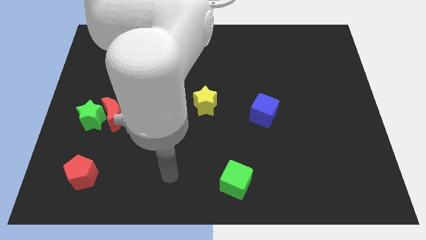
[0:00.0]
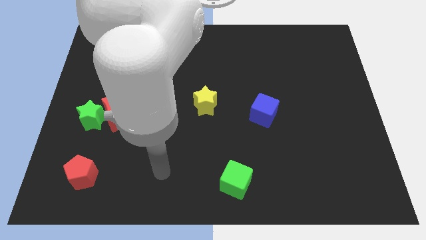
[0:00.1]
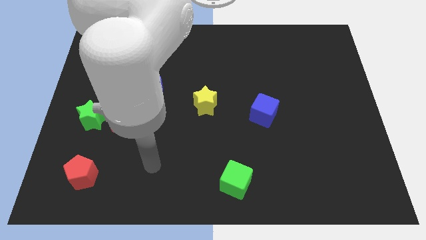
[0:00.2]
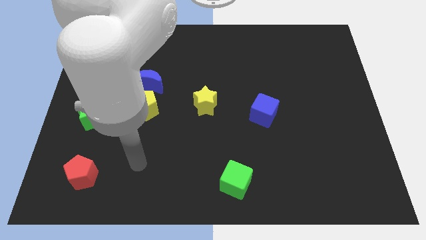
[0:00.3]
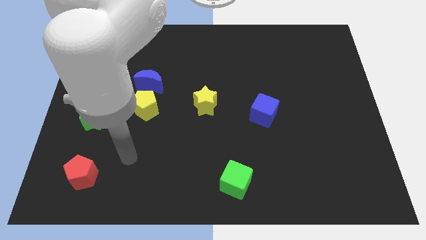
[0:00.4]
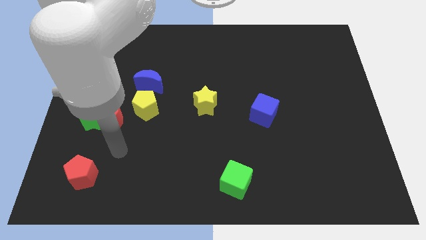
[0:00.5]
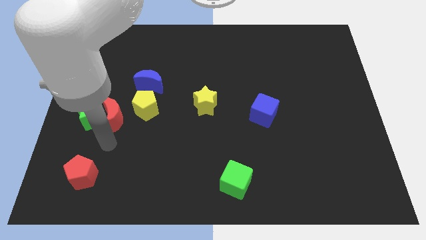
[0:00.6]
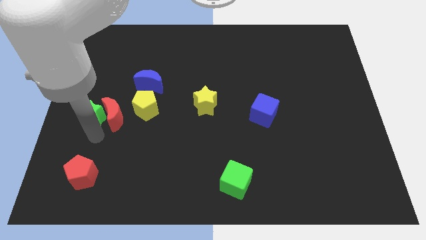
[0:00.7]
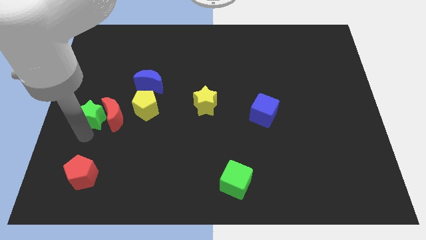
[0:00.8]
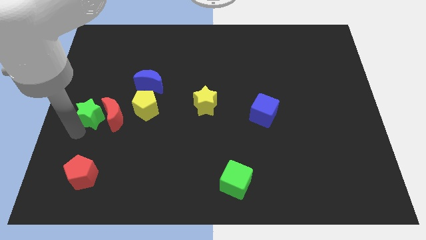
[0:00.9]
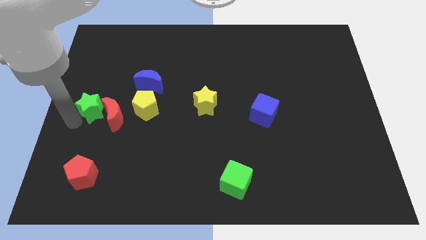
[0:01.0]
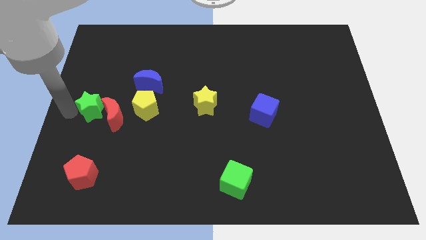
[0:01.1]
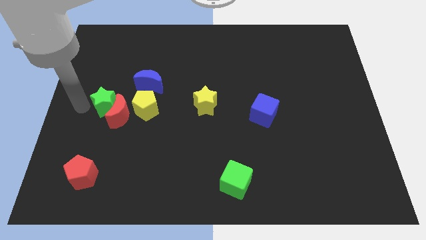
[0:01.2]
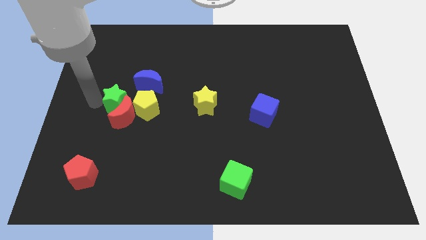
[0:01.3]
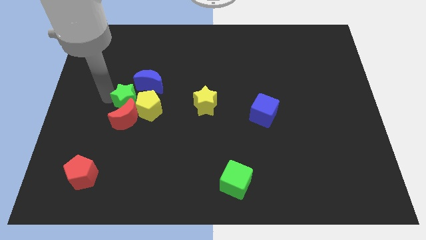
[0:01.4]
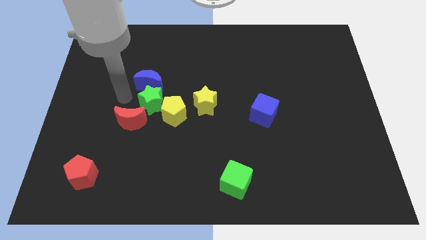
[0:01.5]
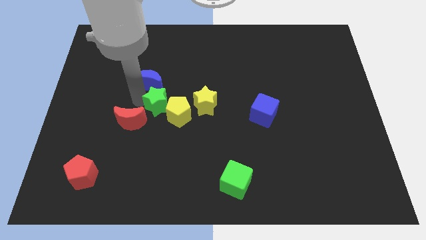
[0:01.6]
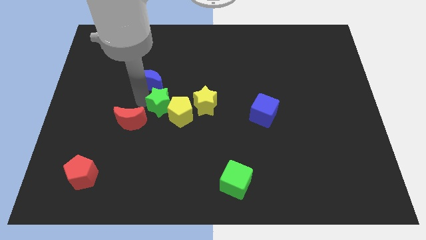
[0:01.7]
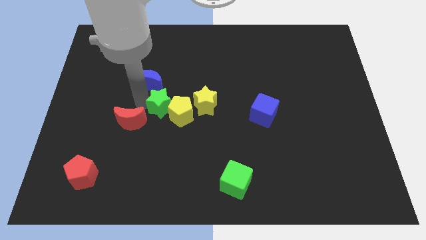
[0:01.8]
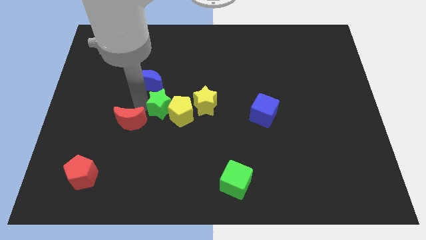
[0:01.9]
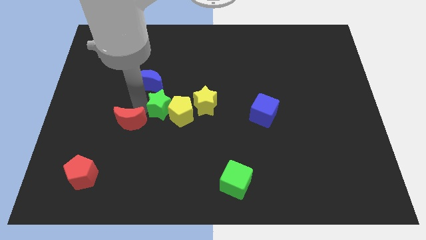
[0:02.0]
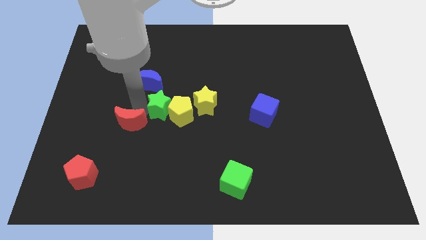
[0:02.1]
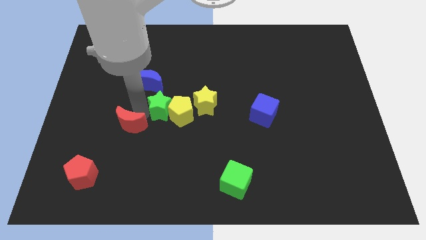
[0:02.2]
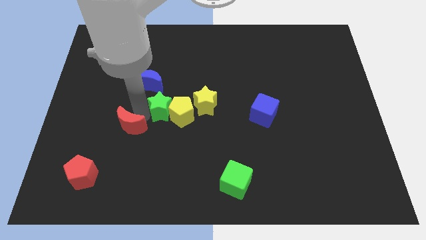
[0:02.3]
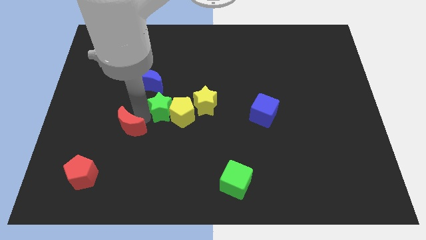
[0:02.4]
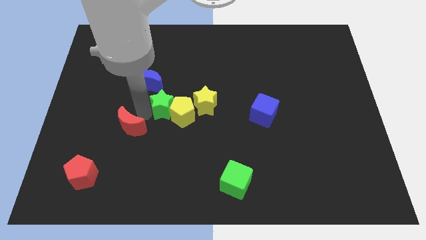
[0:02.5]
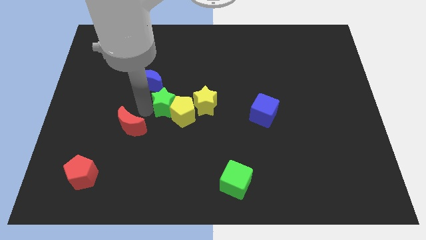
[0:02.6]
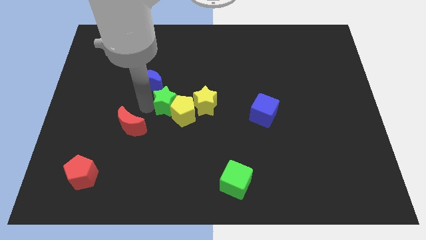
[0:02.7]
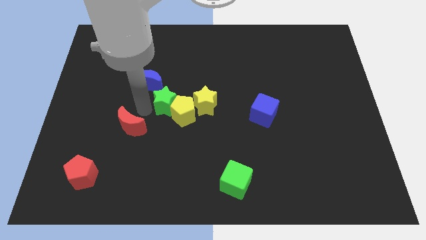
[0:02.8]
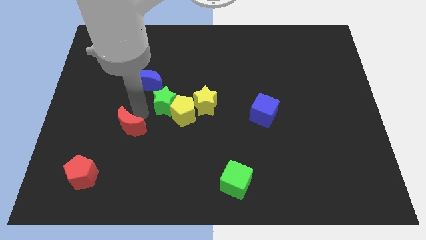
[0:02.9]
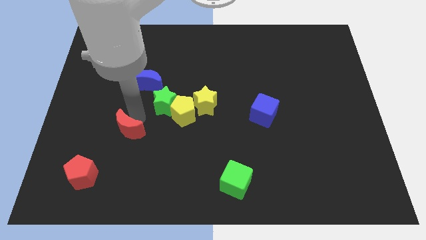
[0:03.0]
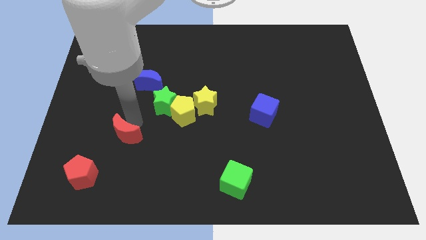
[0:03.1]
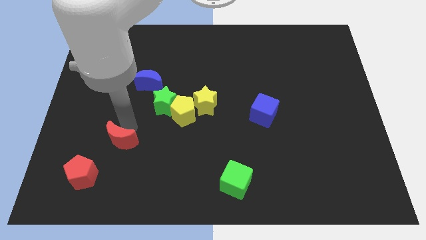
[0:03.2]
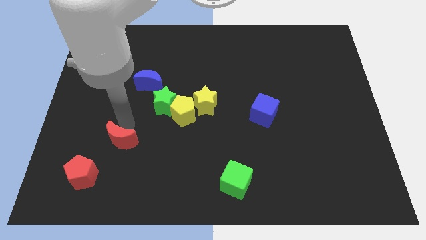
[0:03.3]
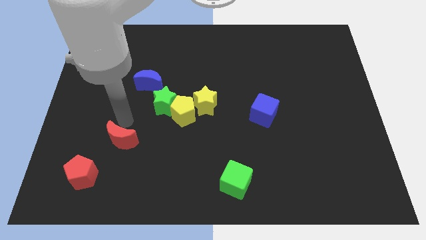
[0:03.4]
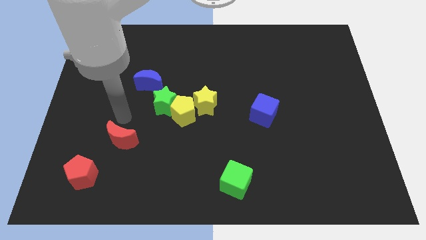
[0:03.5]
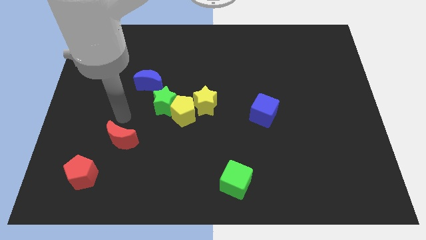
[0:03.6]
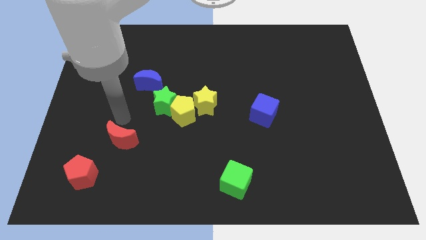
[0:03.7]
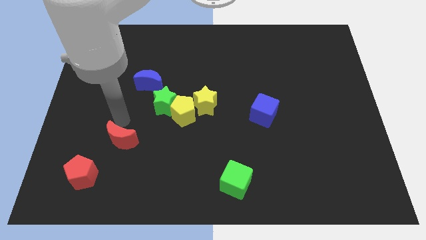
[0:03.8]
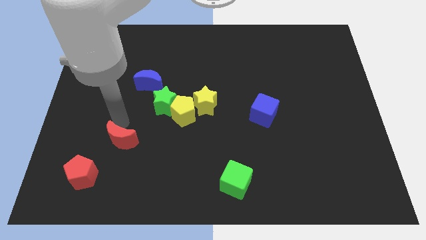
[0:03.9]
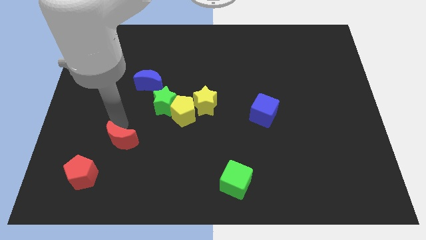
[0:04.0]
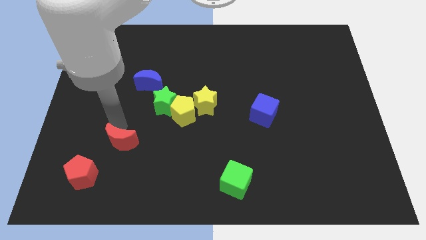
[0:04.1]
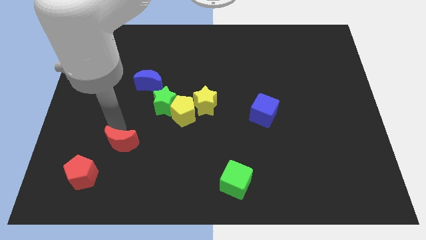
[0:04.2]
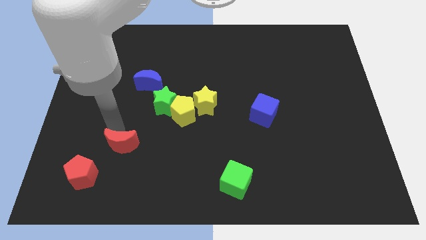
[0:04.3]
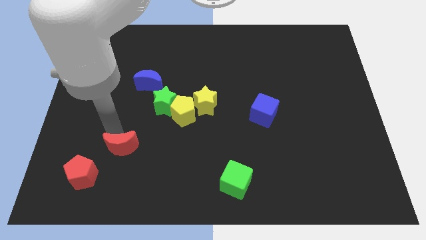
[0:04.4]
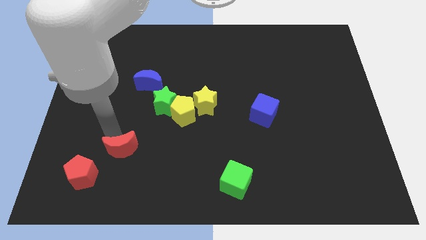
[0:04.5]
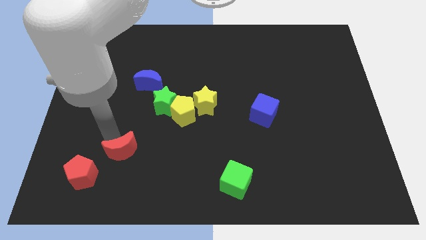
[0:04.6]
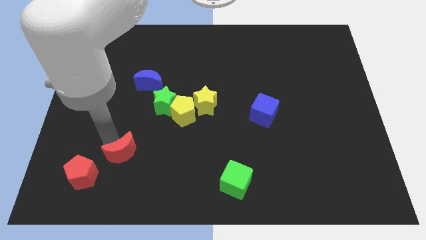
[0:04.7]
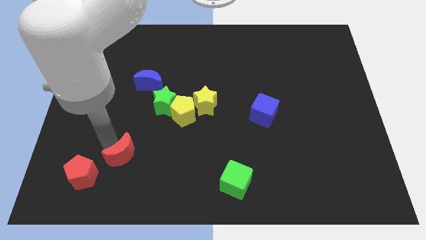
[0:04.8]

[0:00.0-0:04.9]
put the red moon to the right of the red pentagon

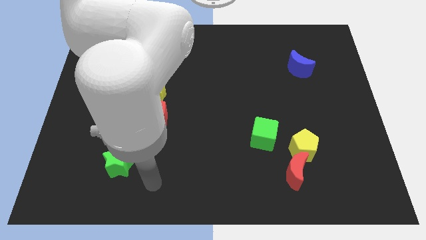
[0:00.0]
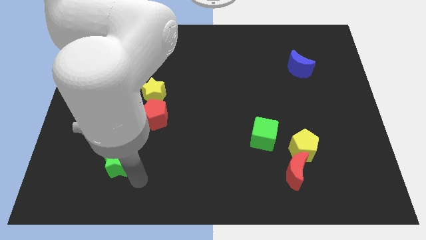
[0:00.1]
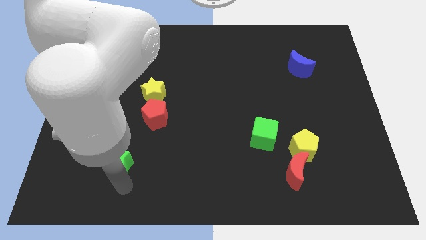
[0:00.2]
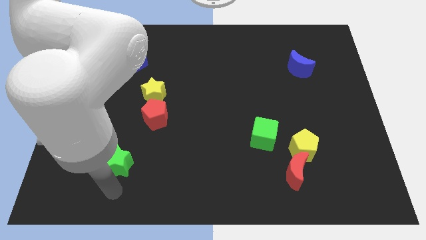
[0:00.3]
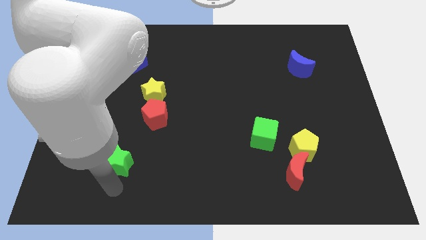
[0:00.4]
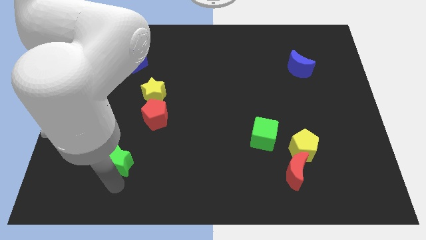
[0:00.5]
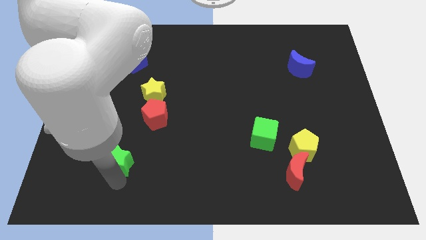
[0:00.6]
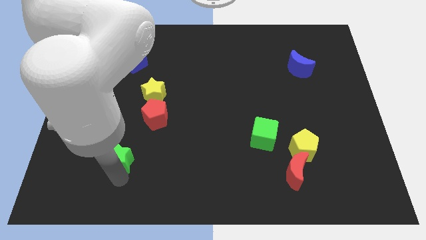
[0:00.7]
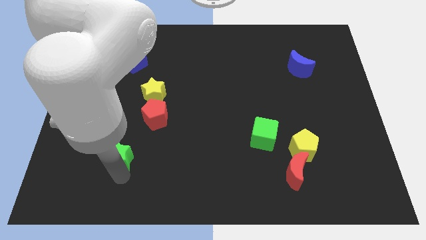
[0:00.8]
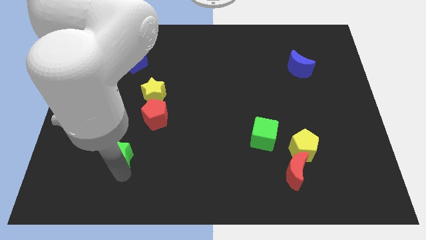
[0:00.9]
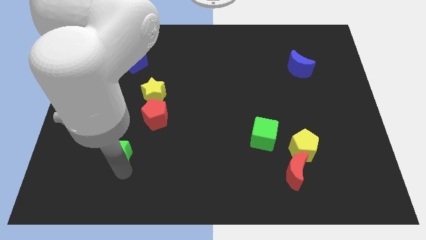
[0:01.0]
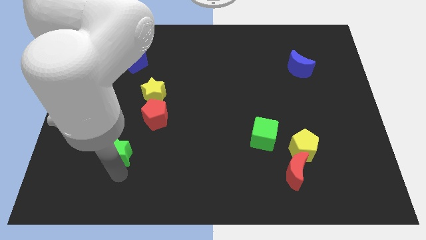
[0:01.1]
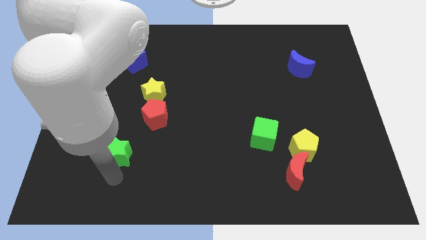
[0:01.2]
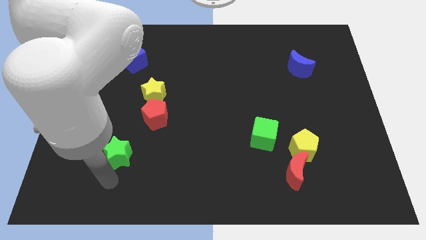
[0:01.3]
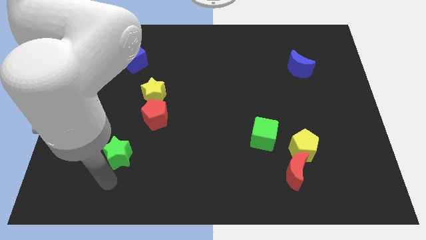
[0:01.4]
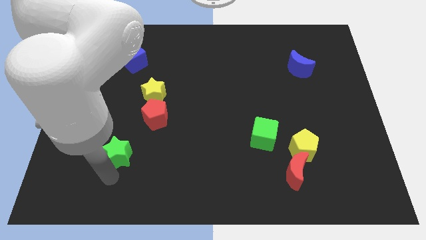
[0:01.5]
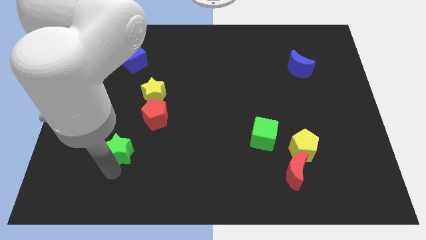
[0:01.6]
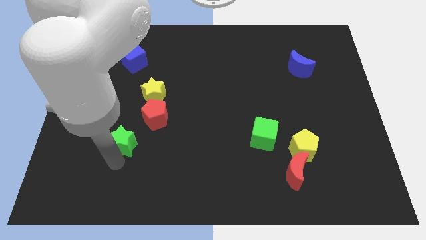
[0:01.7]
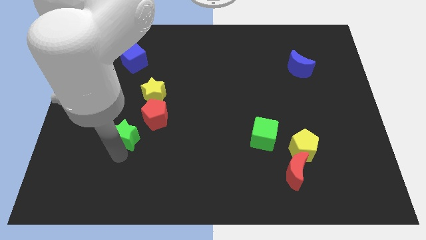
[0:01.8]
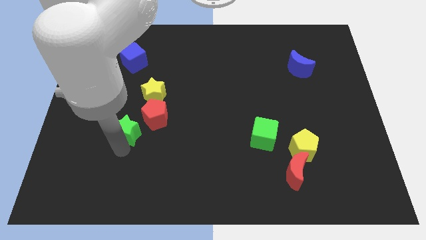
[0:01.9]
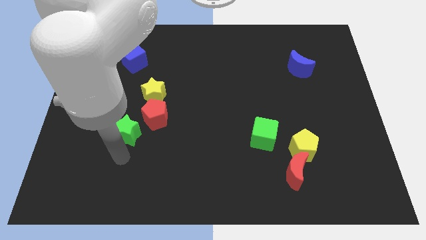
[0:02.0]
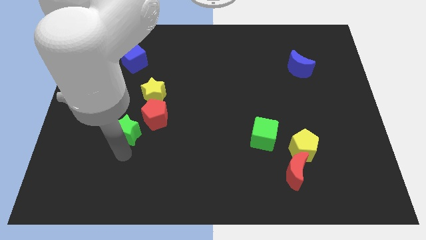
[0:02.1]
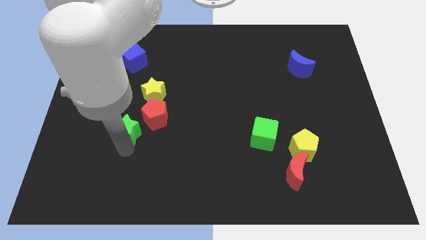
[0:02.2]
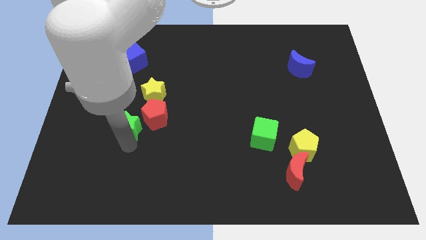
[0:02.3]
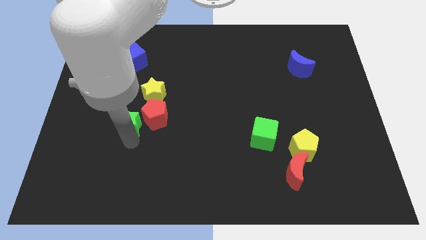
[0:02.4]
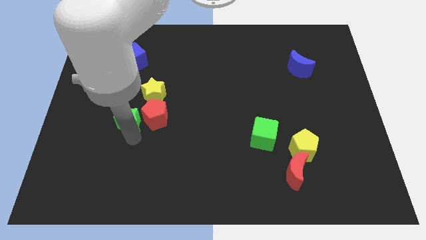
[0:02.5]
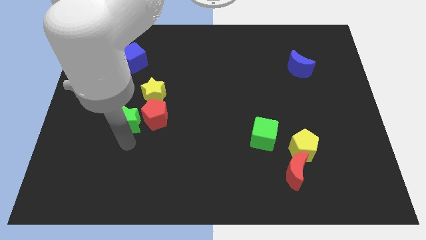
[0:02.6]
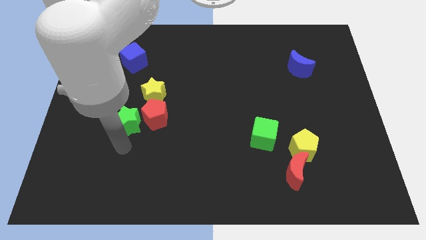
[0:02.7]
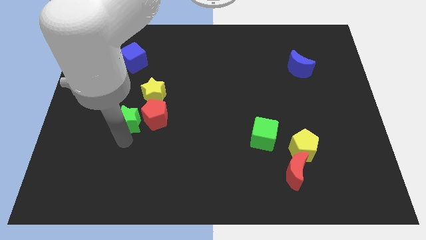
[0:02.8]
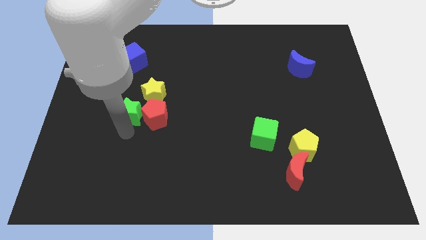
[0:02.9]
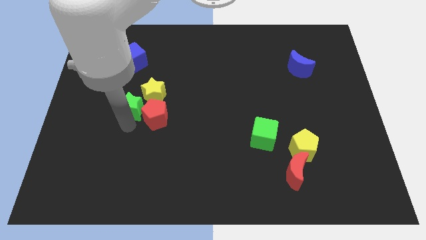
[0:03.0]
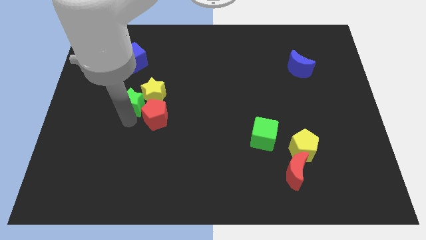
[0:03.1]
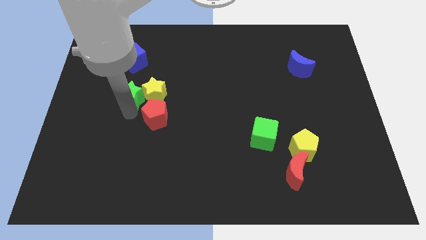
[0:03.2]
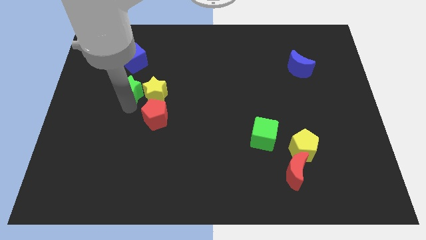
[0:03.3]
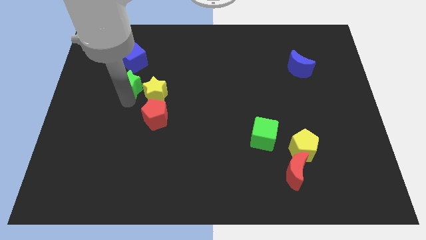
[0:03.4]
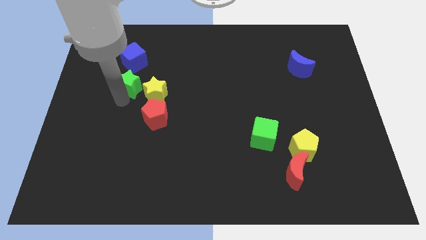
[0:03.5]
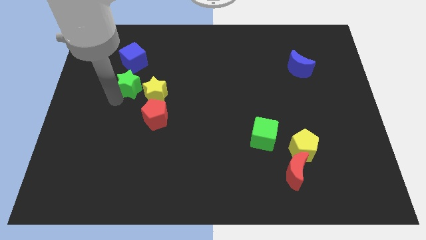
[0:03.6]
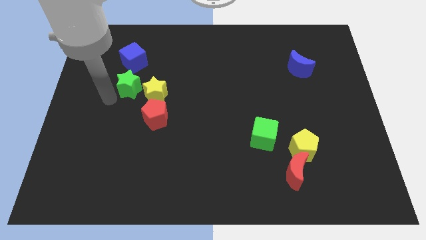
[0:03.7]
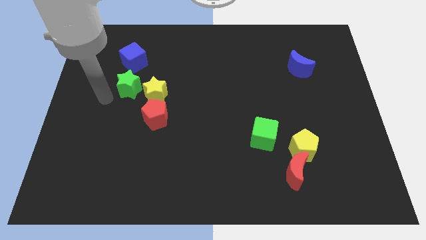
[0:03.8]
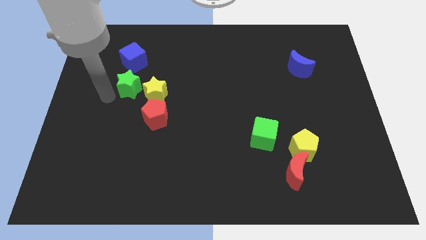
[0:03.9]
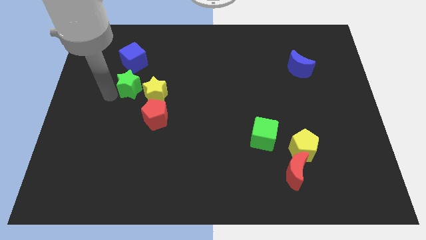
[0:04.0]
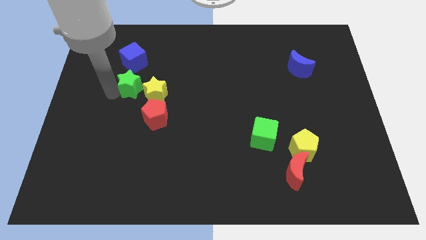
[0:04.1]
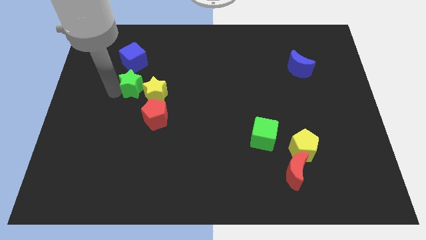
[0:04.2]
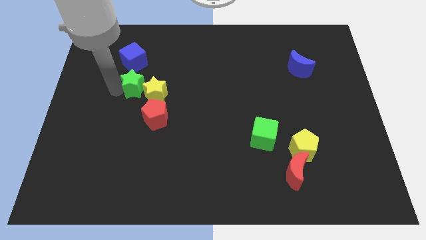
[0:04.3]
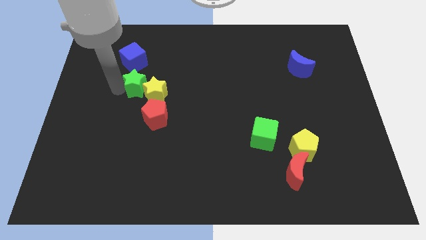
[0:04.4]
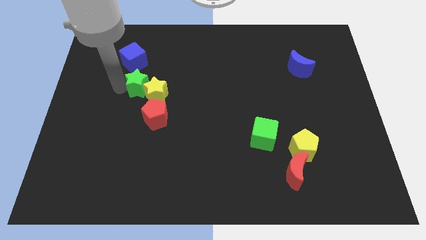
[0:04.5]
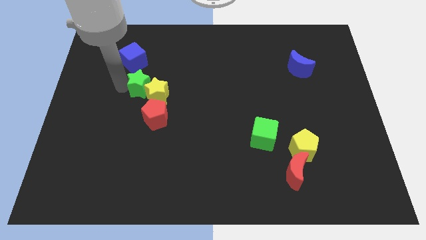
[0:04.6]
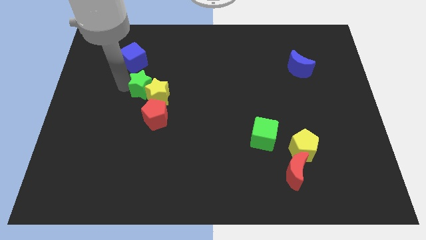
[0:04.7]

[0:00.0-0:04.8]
move the green star above the yellow star
